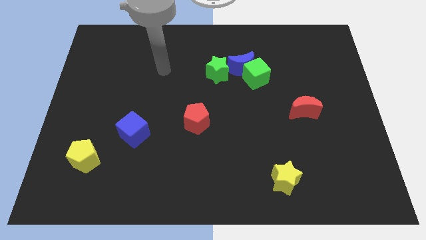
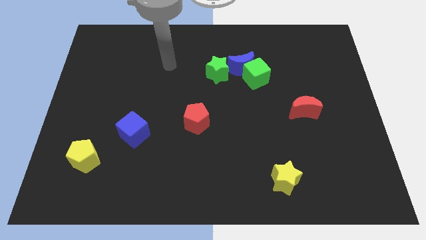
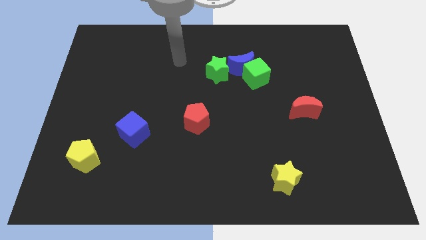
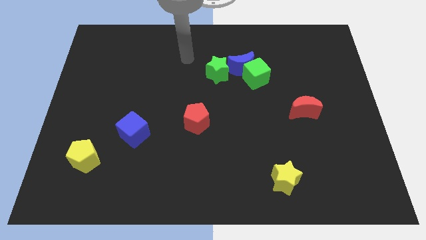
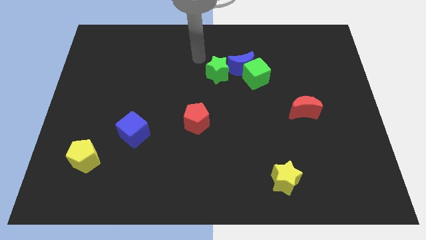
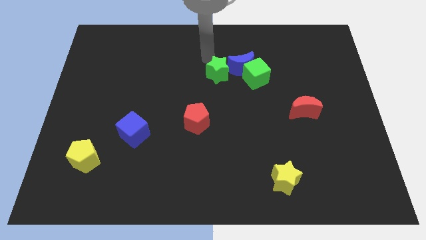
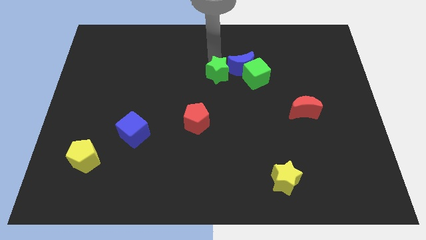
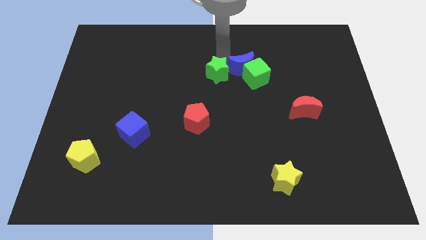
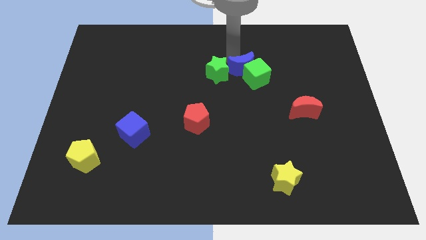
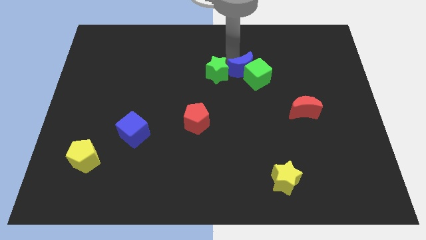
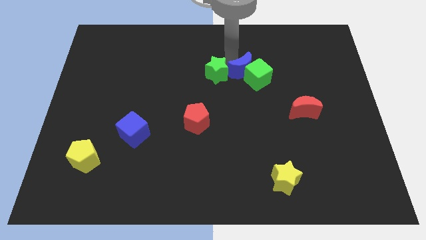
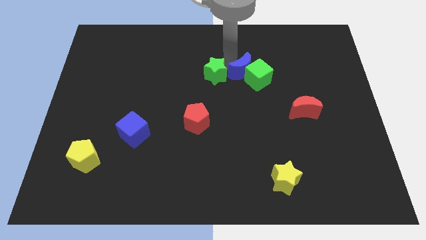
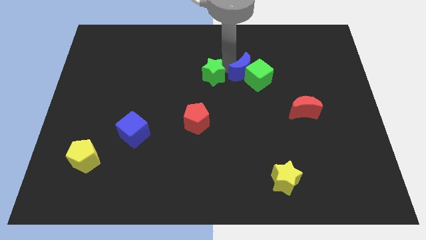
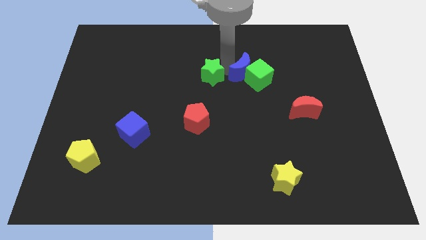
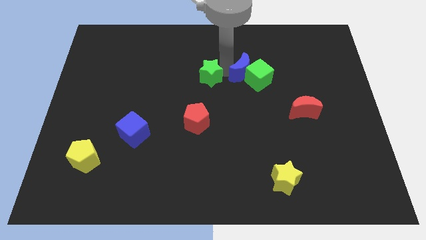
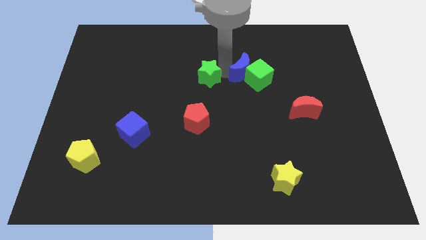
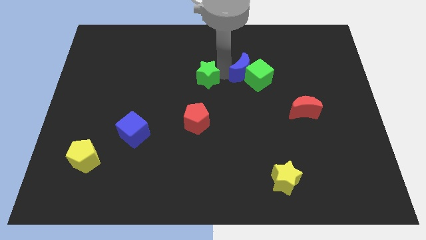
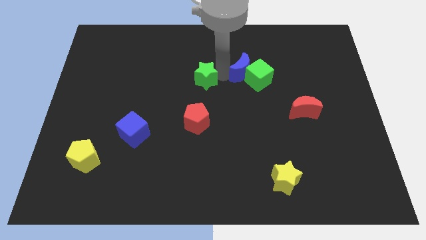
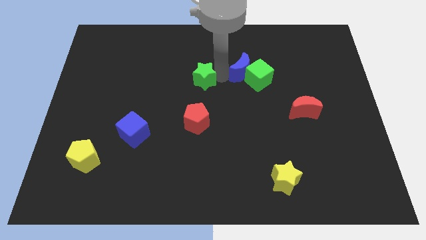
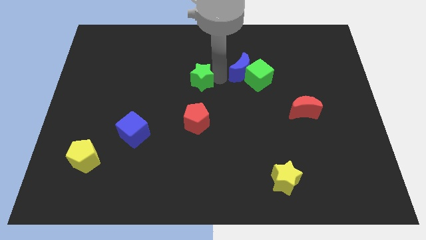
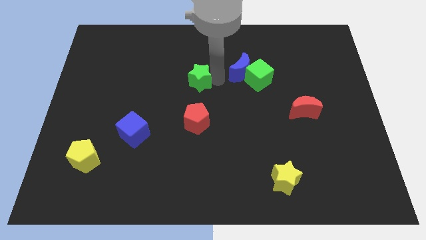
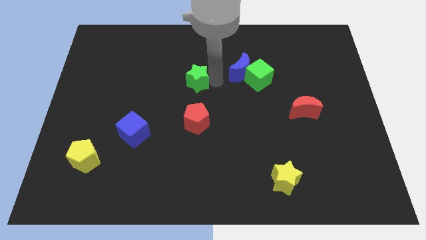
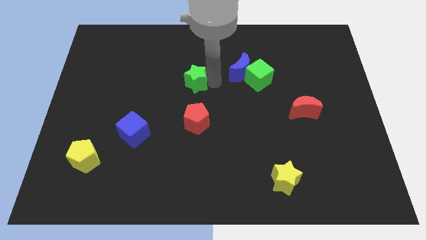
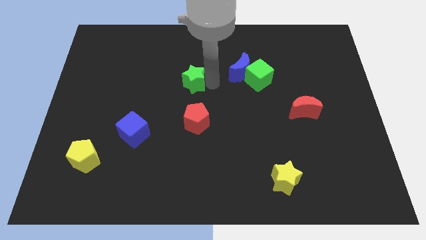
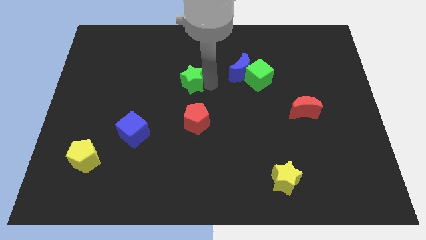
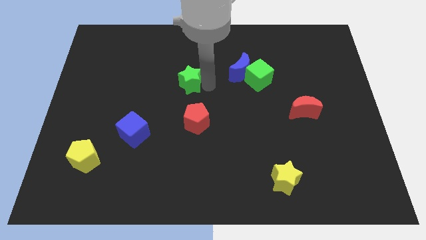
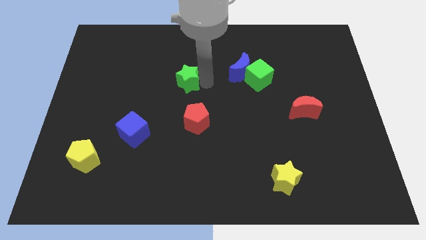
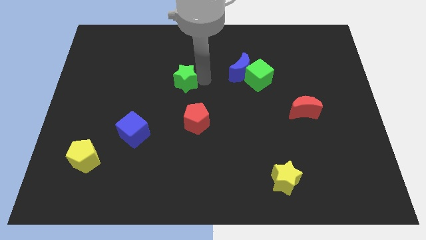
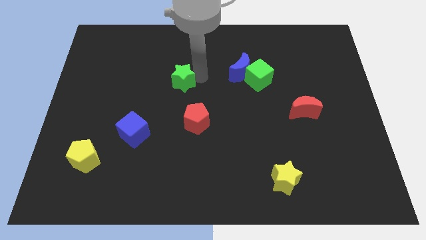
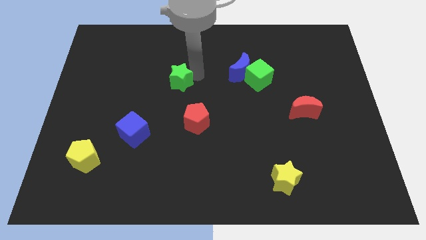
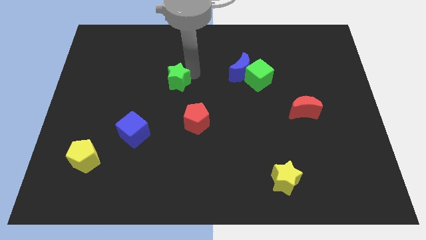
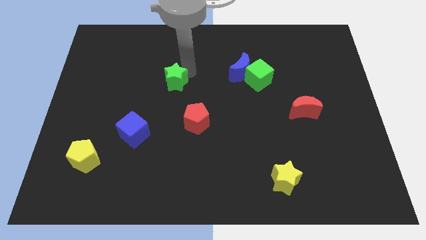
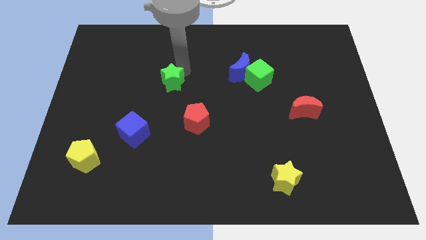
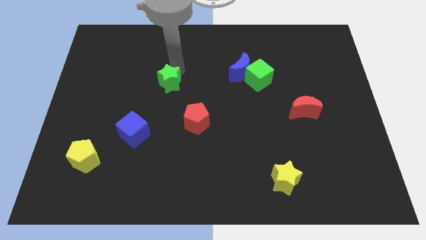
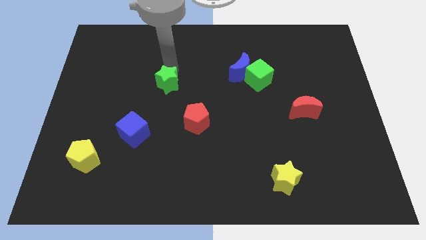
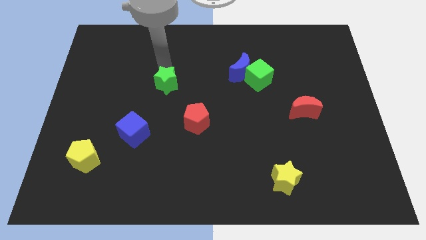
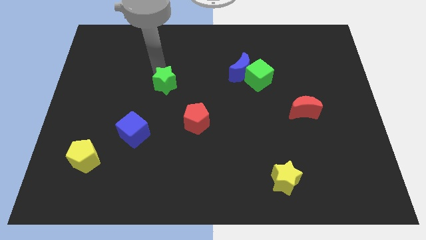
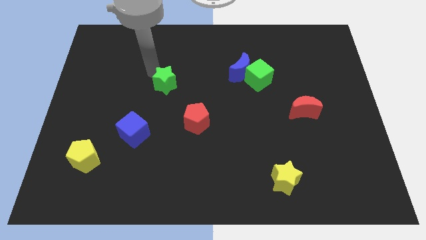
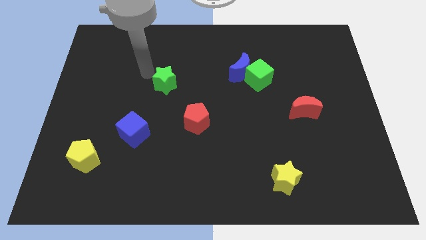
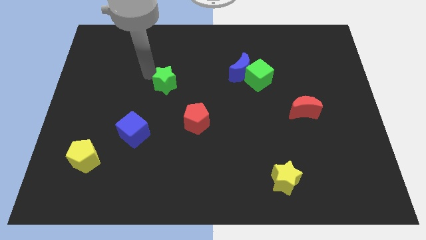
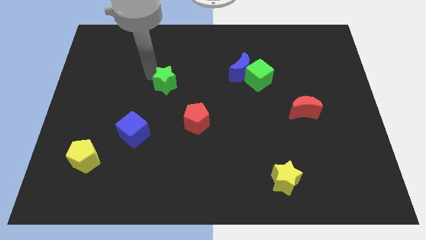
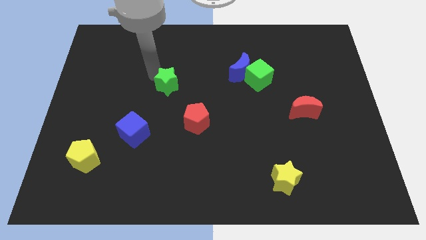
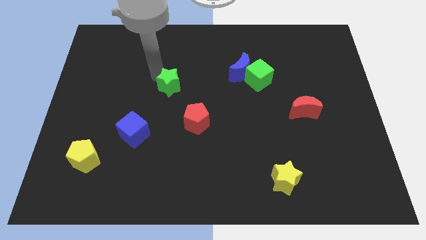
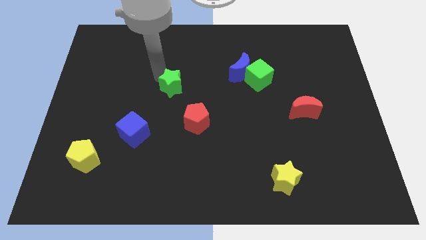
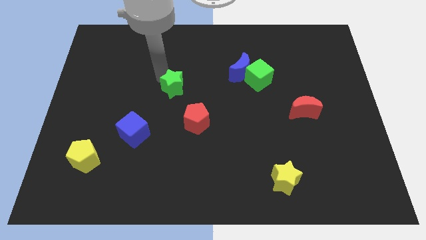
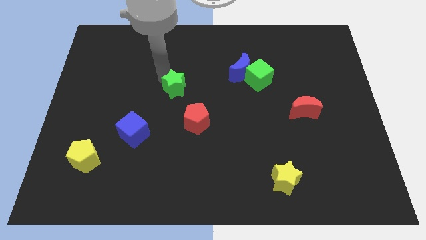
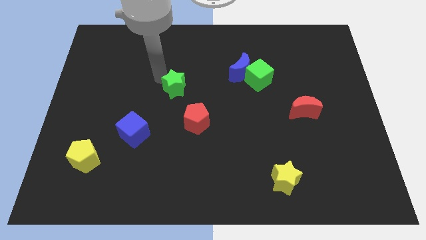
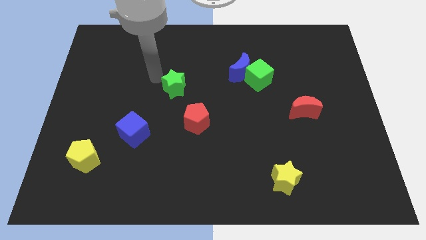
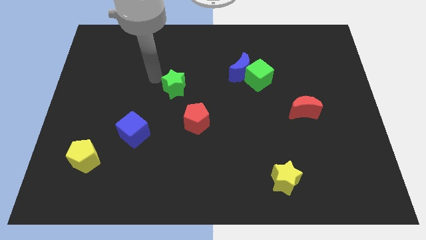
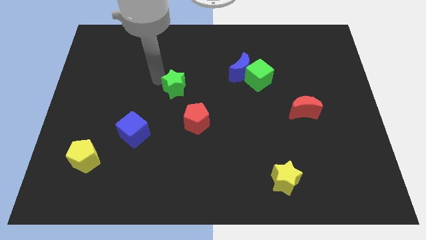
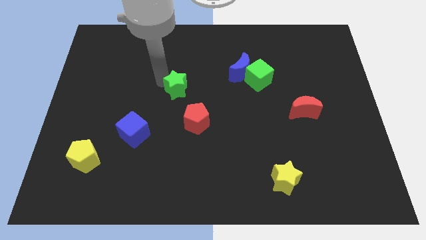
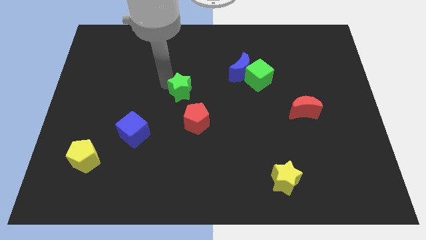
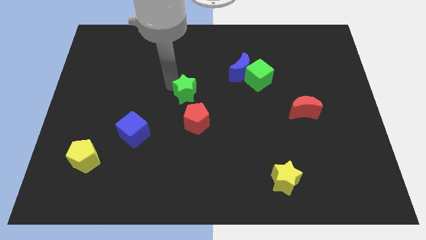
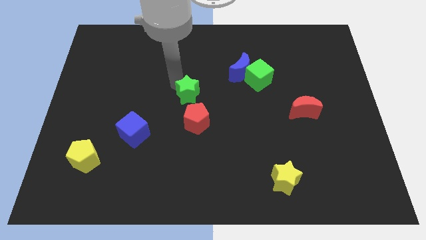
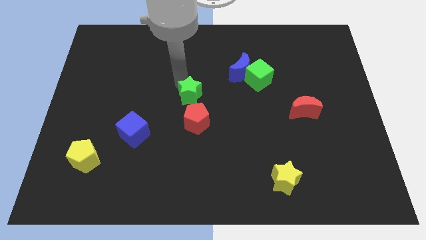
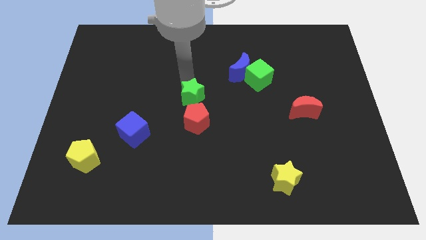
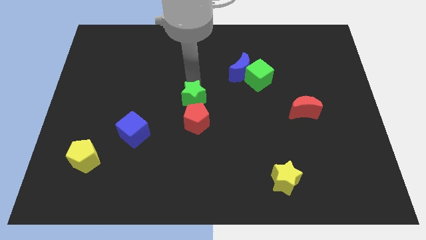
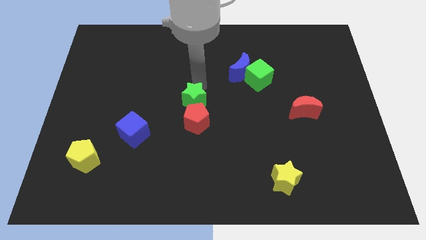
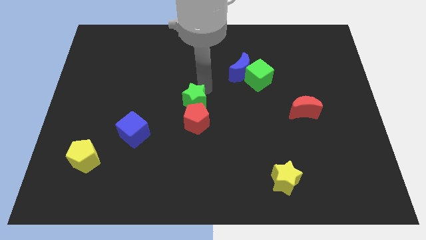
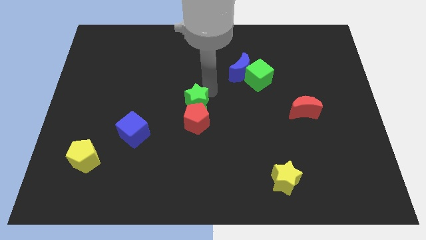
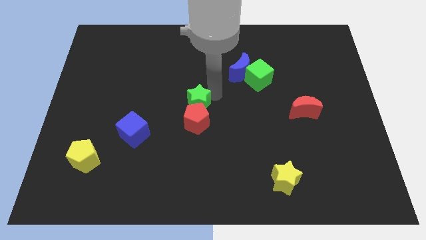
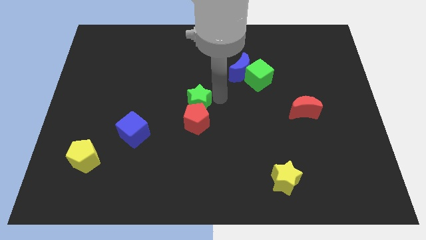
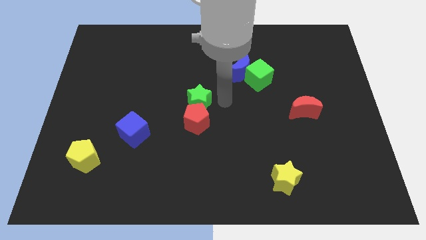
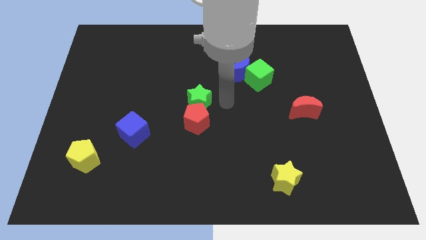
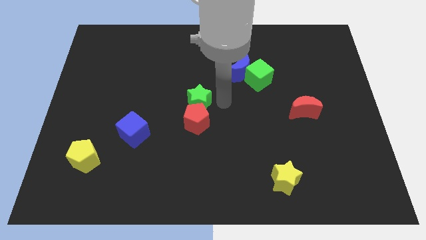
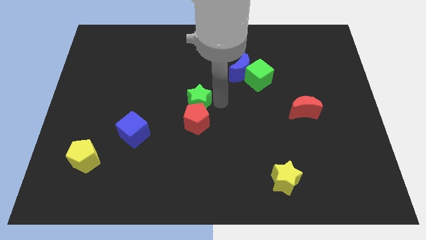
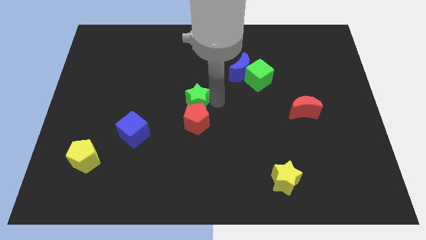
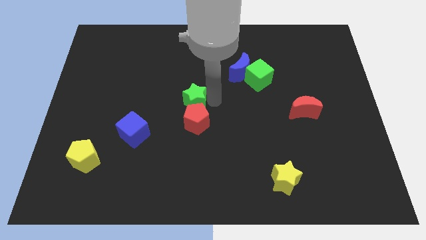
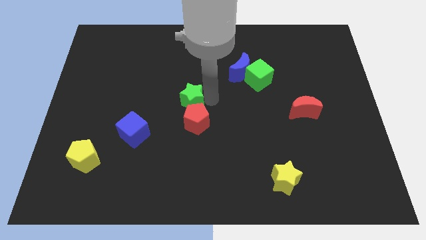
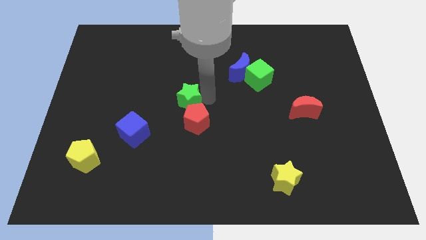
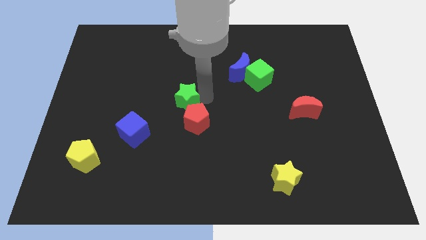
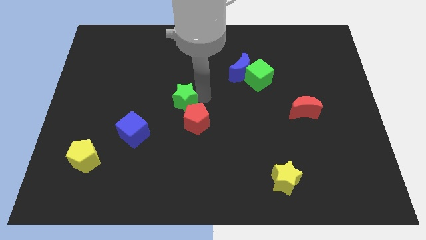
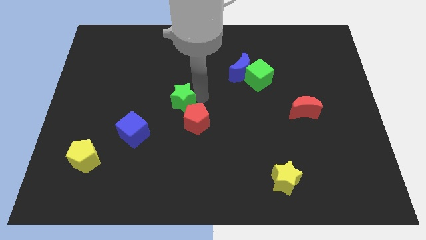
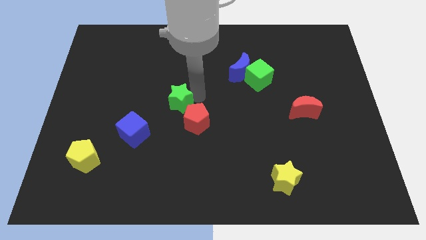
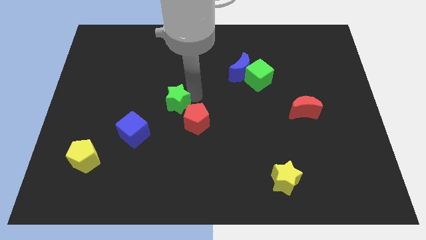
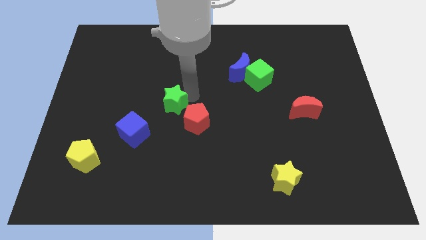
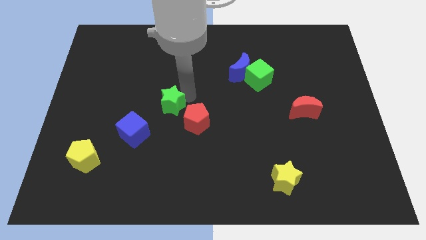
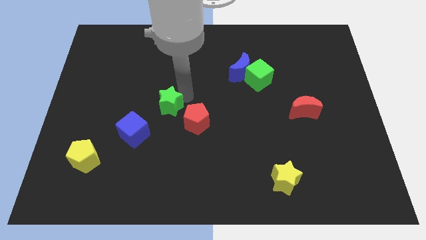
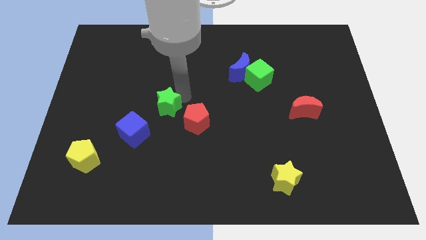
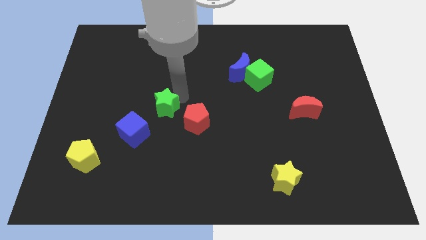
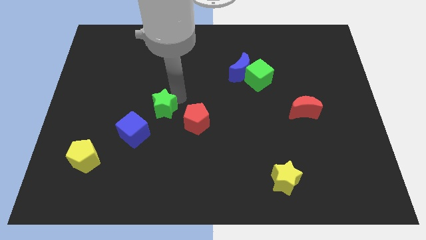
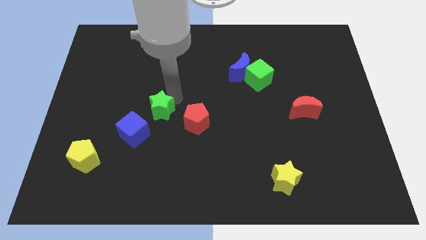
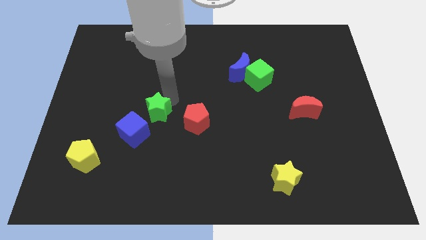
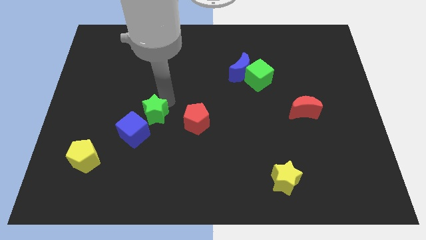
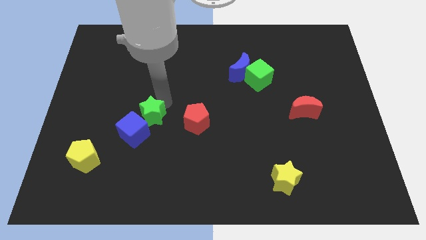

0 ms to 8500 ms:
push the green star towards the blue cube
